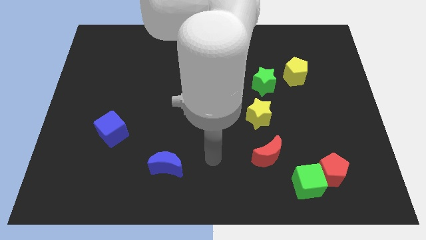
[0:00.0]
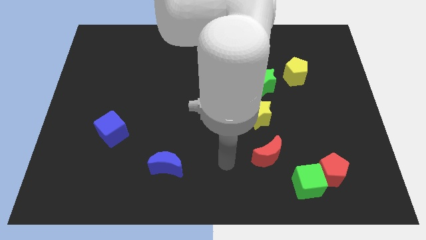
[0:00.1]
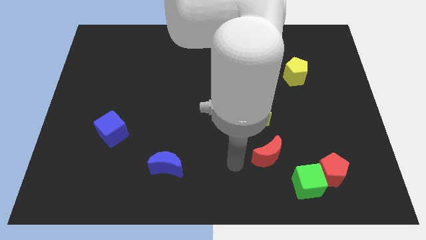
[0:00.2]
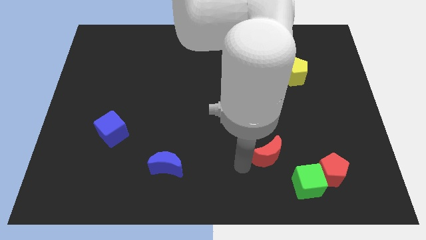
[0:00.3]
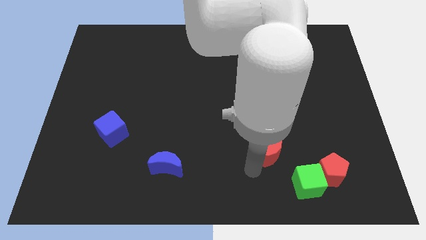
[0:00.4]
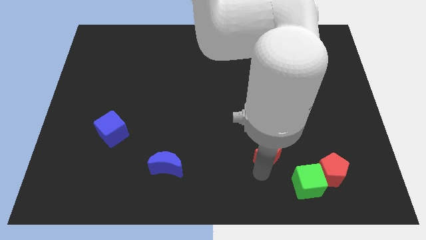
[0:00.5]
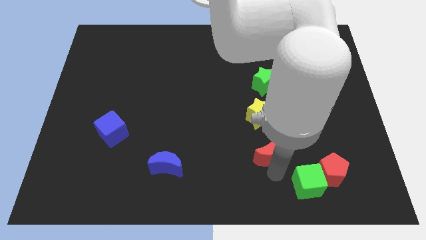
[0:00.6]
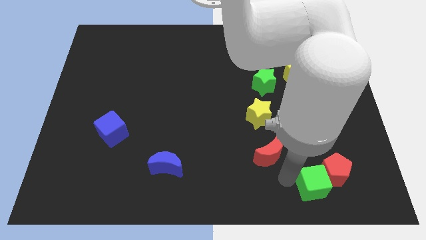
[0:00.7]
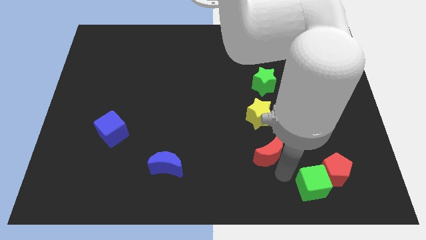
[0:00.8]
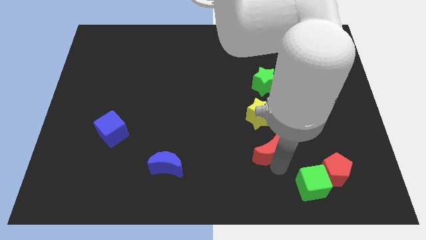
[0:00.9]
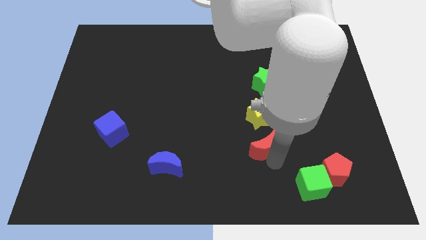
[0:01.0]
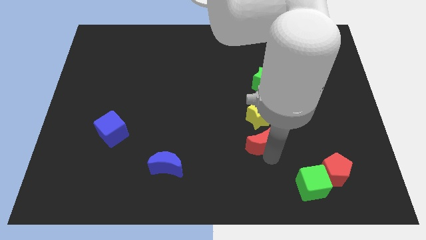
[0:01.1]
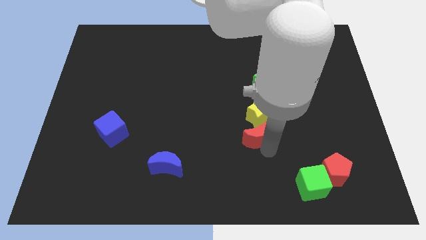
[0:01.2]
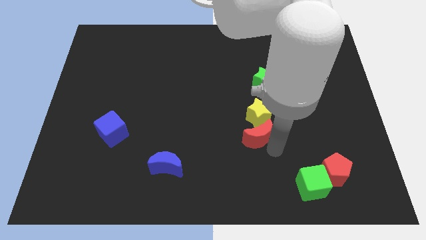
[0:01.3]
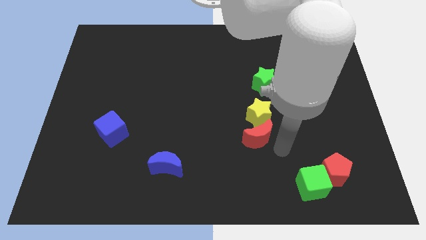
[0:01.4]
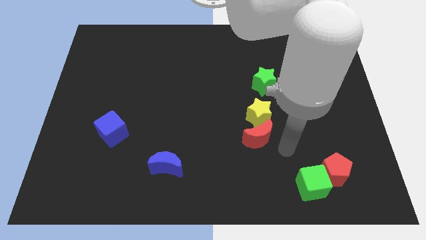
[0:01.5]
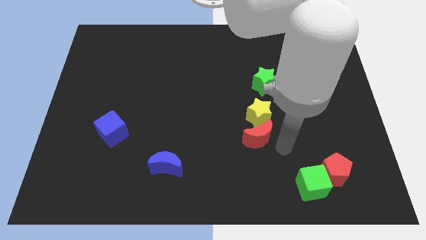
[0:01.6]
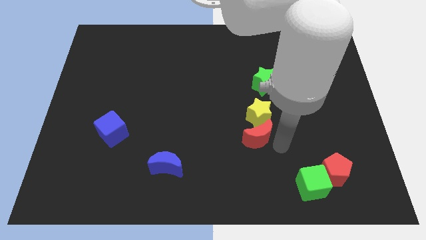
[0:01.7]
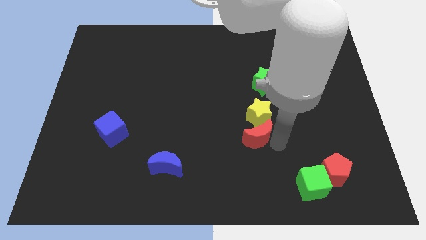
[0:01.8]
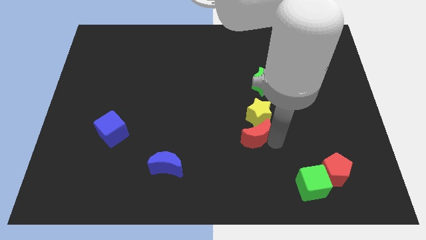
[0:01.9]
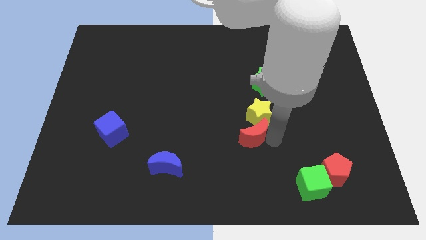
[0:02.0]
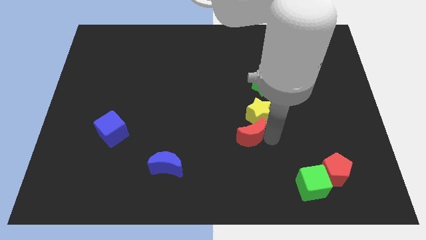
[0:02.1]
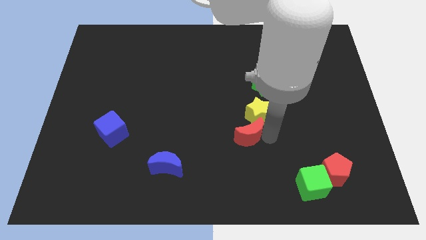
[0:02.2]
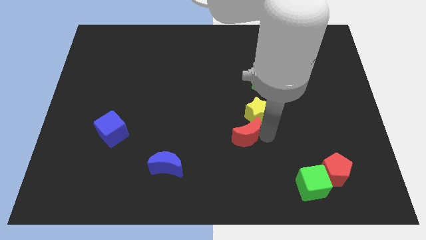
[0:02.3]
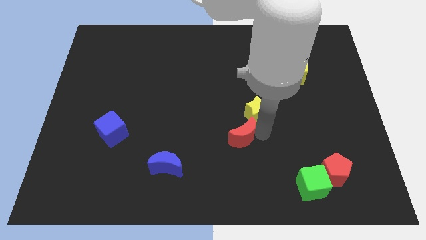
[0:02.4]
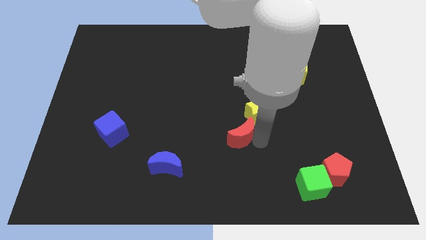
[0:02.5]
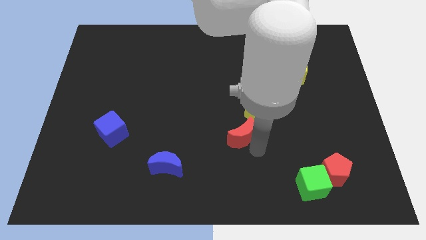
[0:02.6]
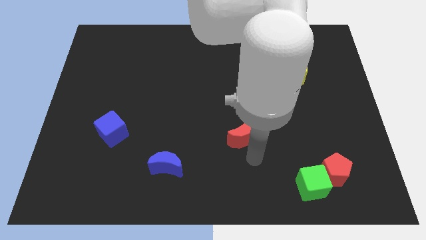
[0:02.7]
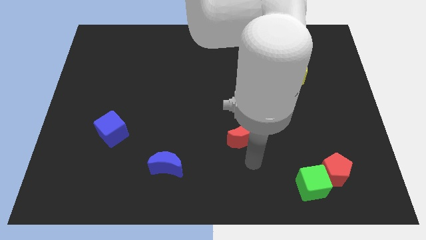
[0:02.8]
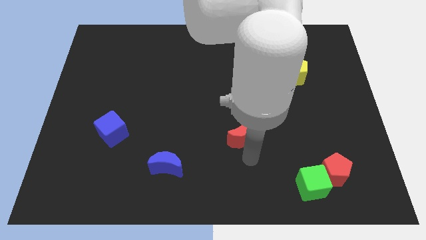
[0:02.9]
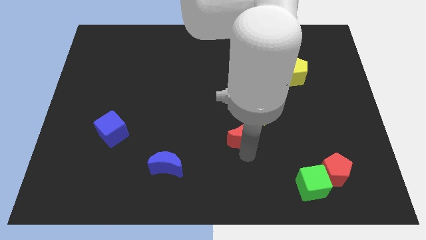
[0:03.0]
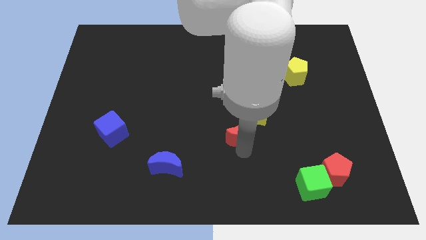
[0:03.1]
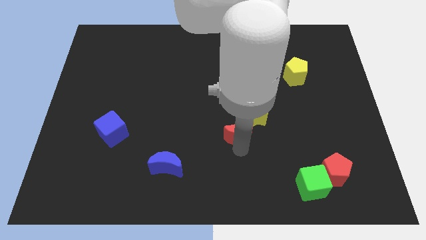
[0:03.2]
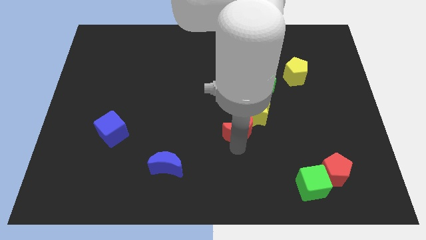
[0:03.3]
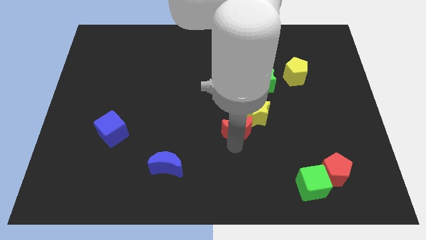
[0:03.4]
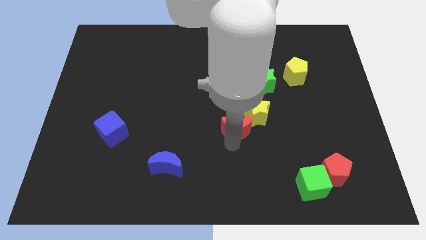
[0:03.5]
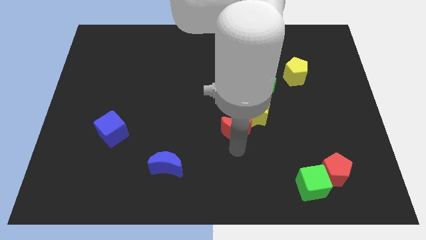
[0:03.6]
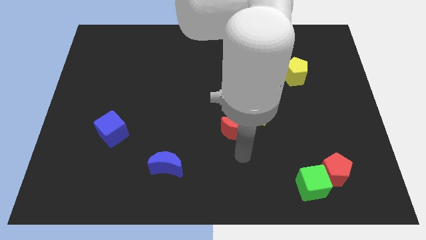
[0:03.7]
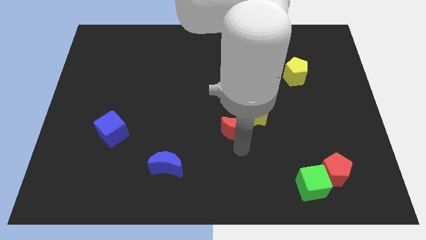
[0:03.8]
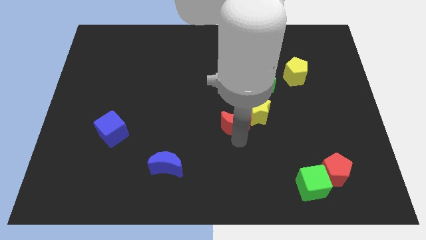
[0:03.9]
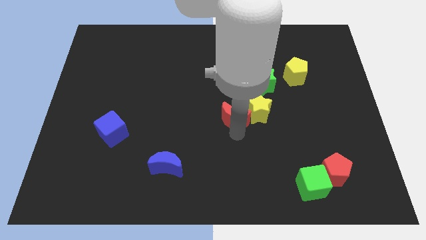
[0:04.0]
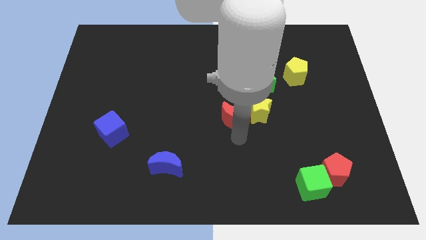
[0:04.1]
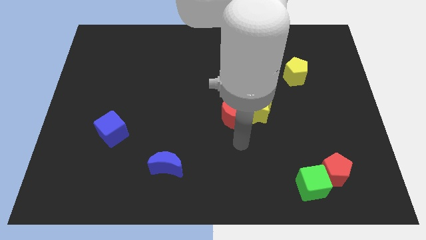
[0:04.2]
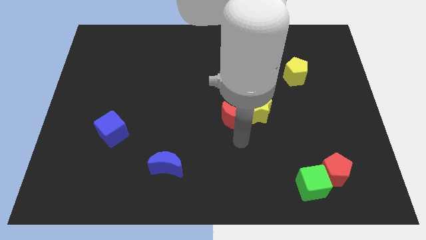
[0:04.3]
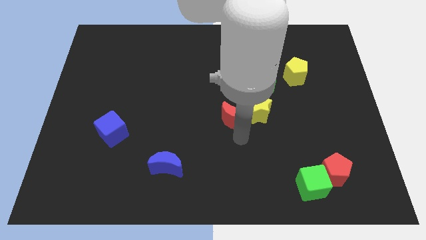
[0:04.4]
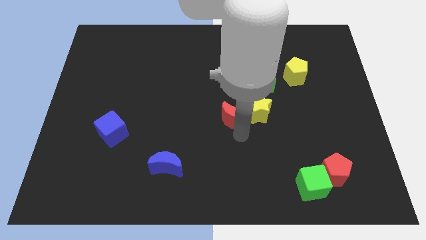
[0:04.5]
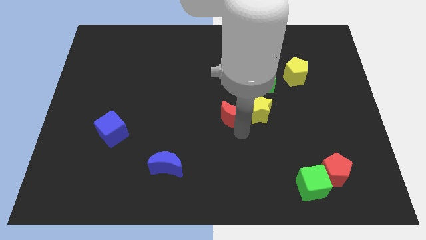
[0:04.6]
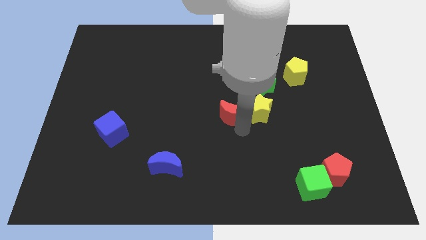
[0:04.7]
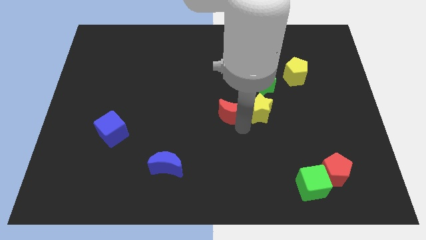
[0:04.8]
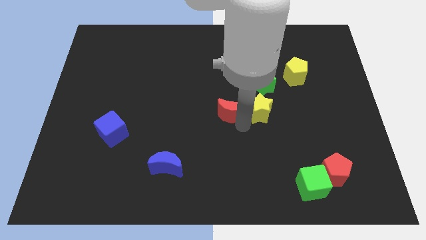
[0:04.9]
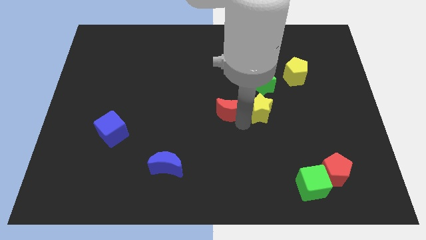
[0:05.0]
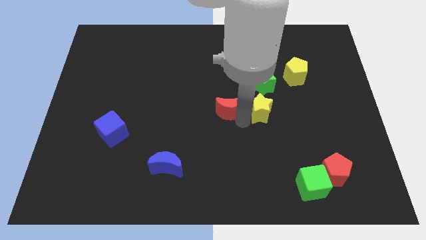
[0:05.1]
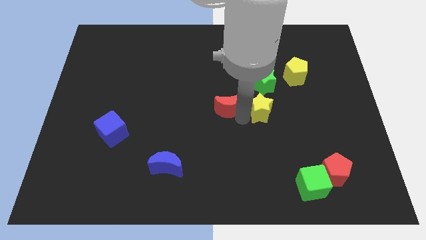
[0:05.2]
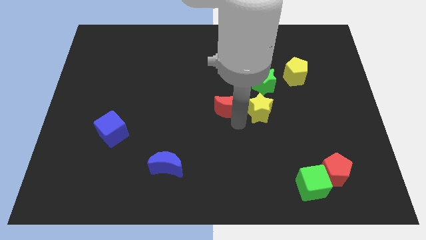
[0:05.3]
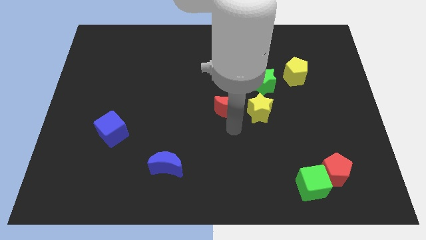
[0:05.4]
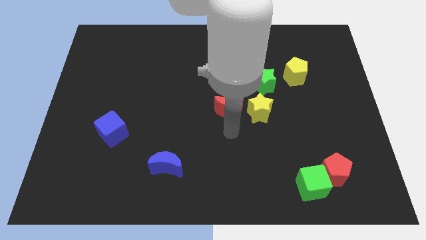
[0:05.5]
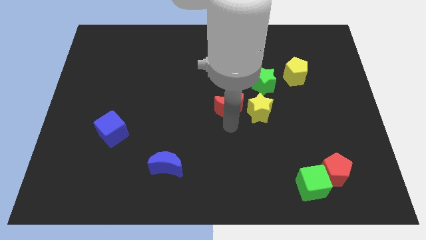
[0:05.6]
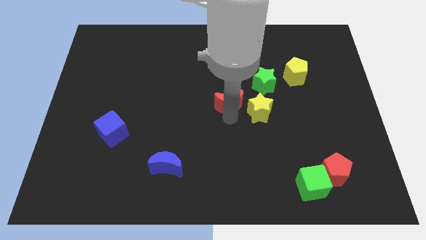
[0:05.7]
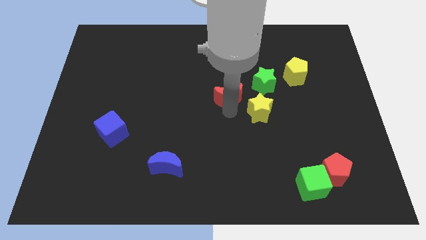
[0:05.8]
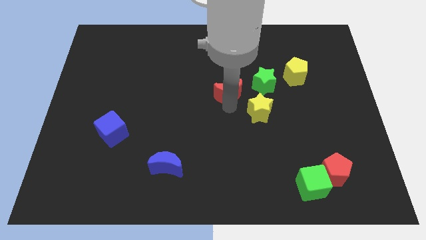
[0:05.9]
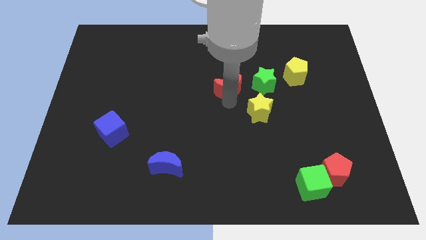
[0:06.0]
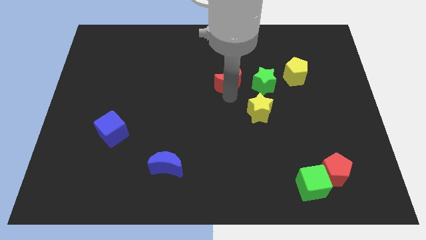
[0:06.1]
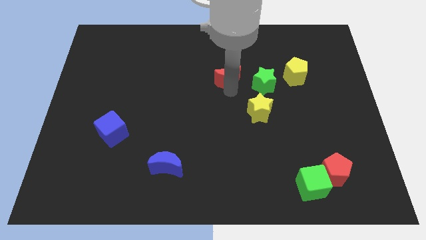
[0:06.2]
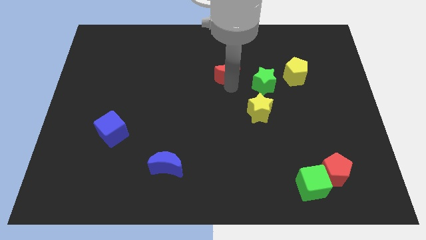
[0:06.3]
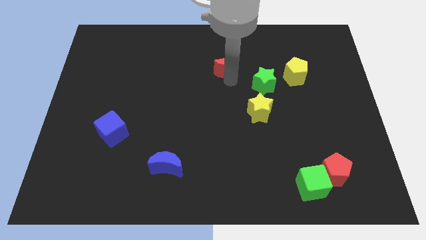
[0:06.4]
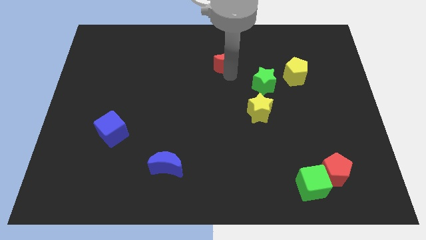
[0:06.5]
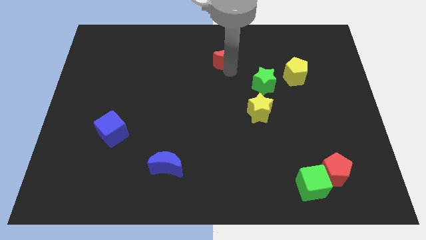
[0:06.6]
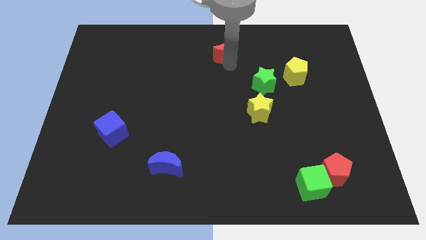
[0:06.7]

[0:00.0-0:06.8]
put the red moon to the top
